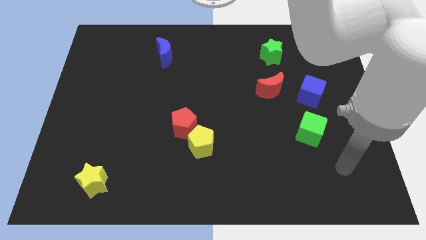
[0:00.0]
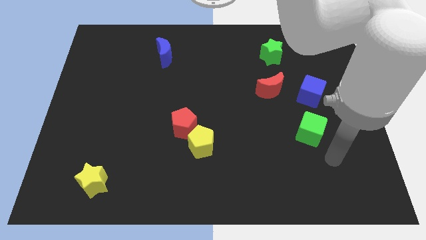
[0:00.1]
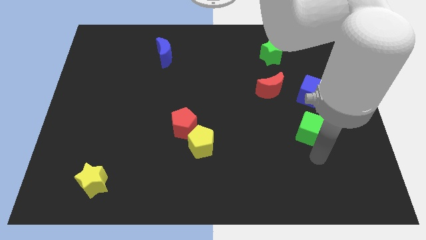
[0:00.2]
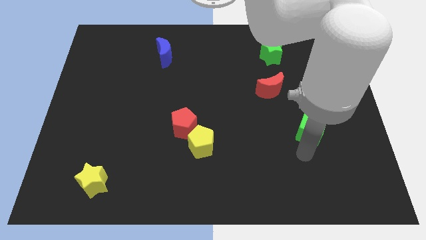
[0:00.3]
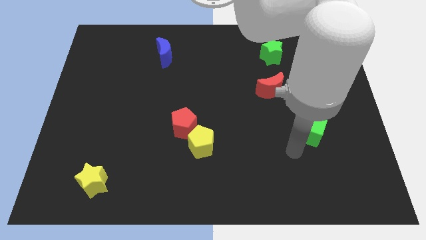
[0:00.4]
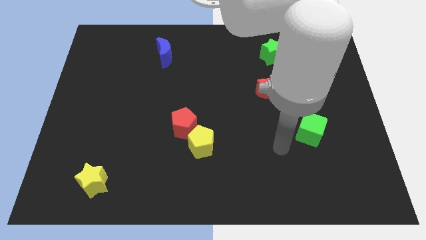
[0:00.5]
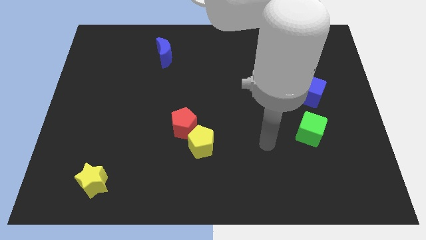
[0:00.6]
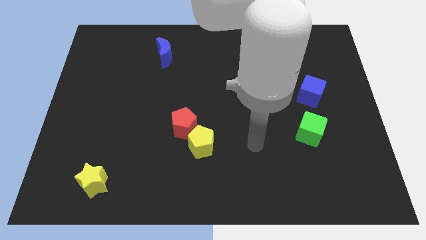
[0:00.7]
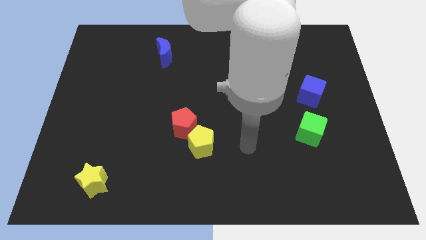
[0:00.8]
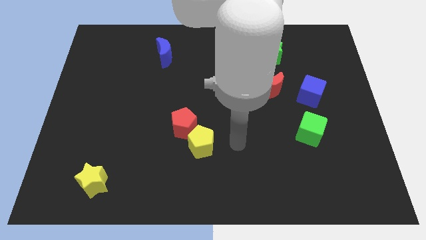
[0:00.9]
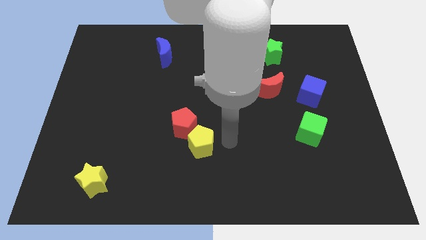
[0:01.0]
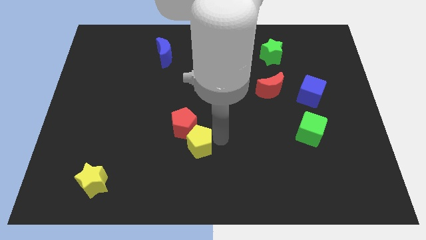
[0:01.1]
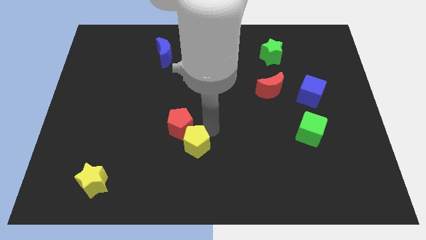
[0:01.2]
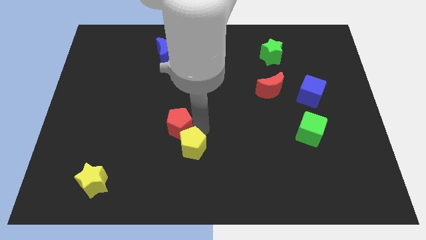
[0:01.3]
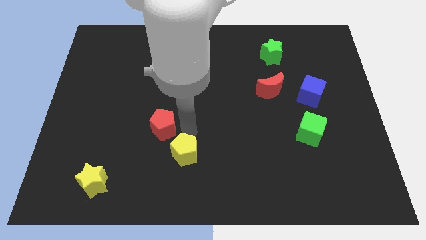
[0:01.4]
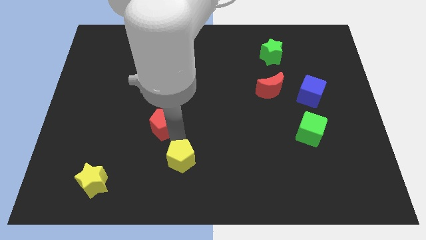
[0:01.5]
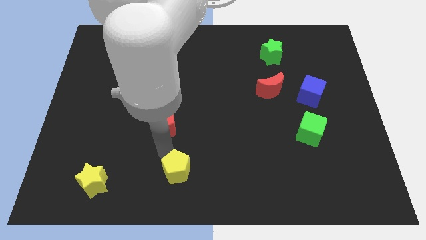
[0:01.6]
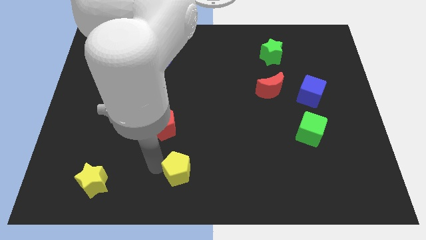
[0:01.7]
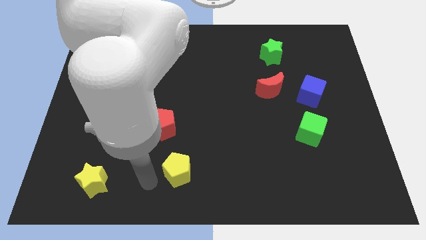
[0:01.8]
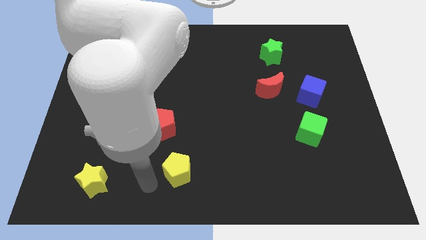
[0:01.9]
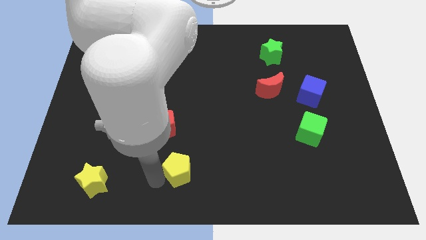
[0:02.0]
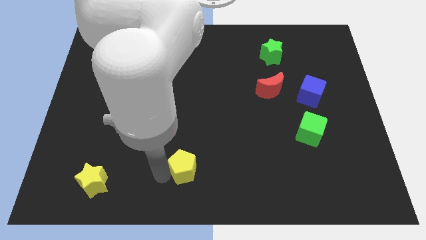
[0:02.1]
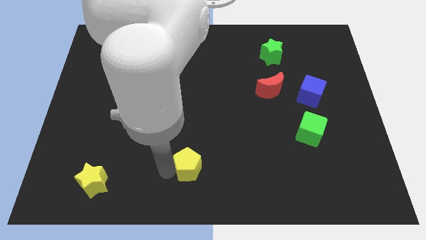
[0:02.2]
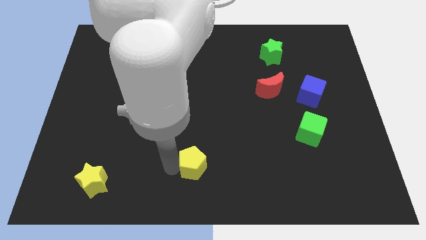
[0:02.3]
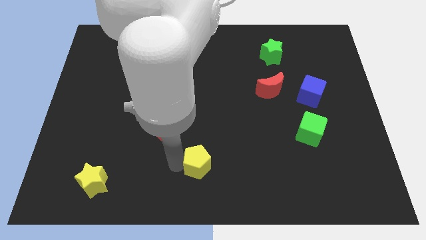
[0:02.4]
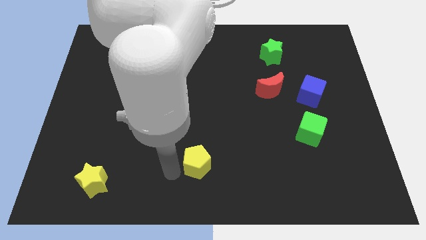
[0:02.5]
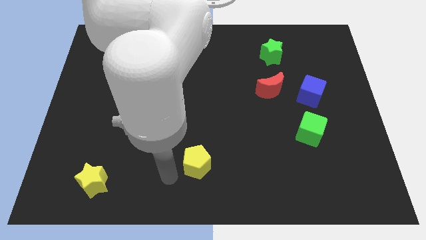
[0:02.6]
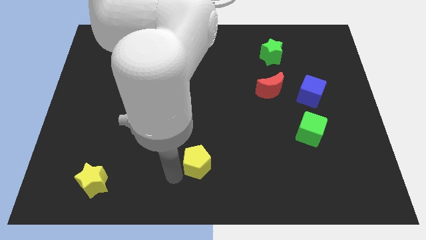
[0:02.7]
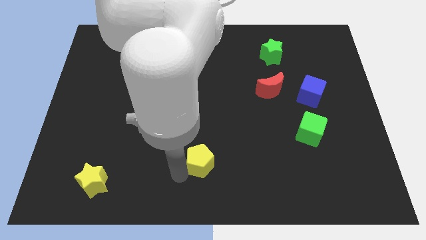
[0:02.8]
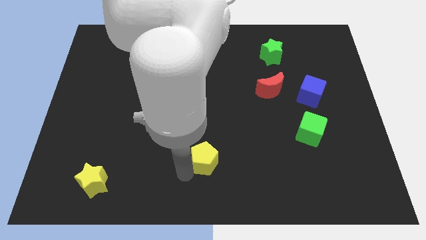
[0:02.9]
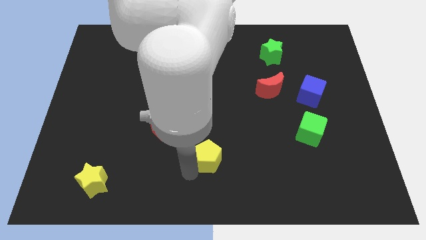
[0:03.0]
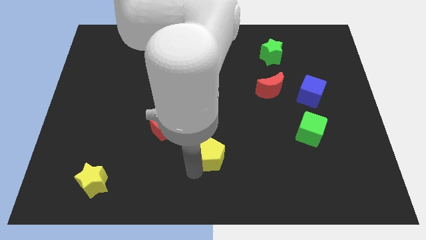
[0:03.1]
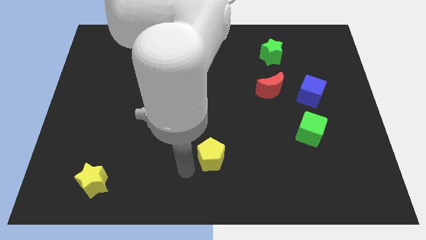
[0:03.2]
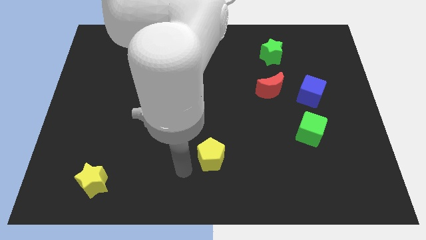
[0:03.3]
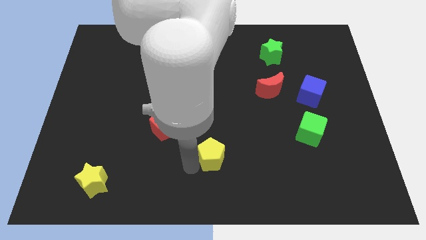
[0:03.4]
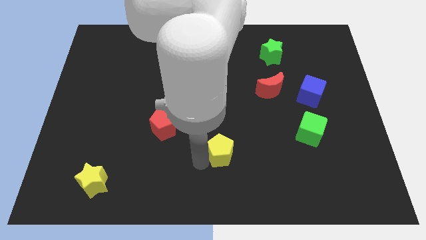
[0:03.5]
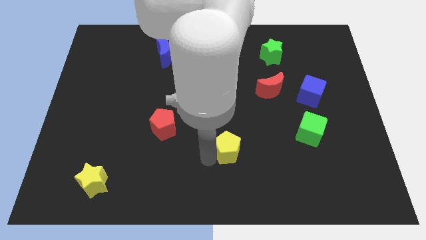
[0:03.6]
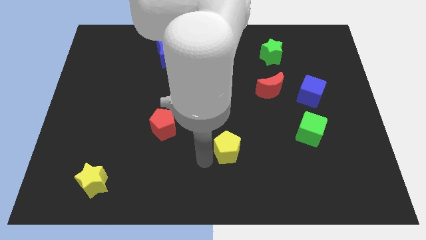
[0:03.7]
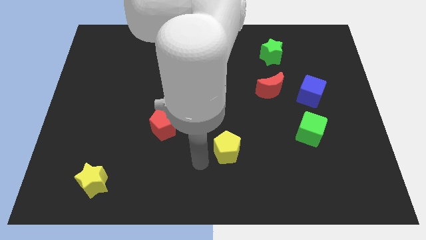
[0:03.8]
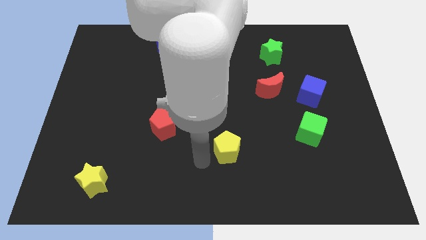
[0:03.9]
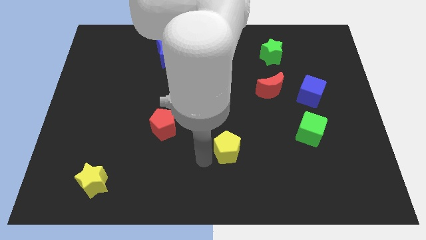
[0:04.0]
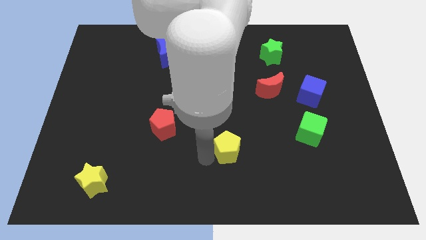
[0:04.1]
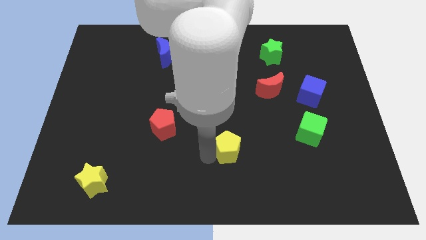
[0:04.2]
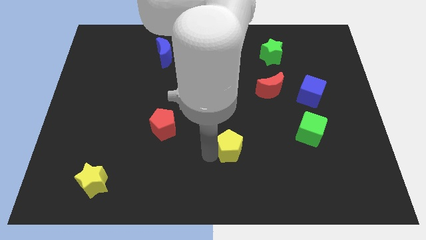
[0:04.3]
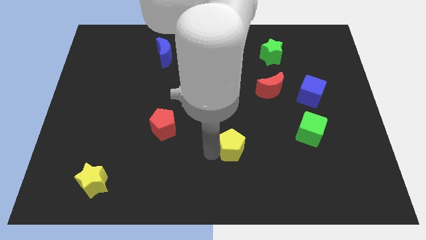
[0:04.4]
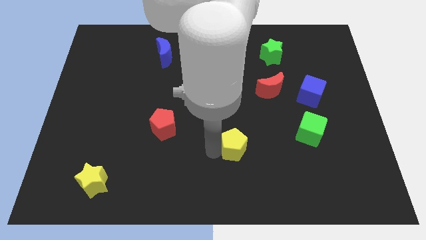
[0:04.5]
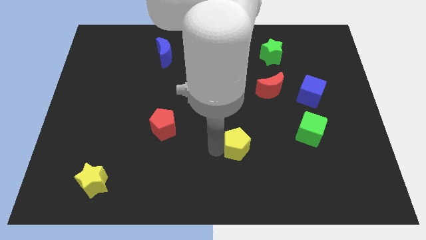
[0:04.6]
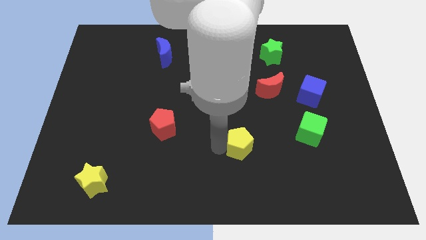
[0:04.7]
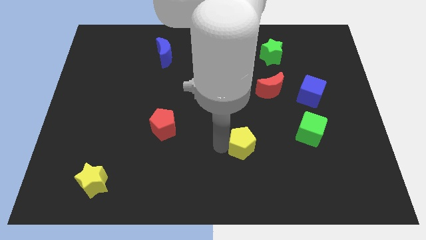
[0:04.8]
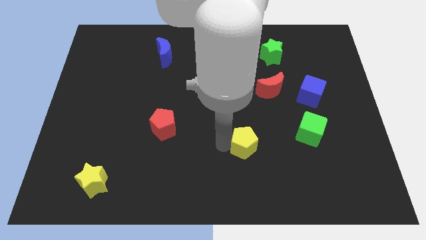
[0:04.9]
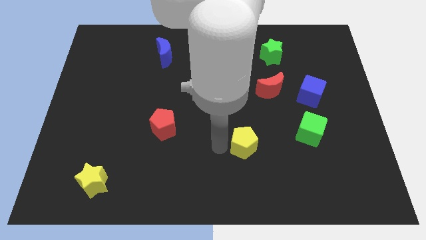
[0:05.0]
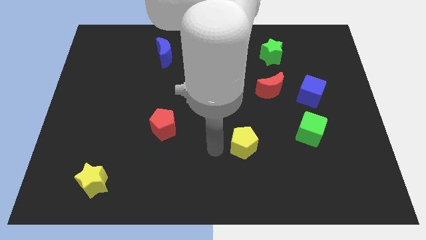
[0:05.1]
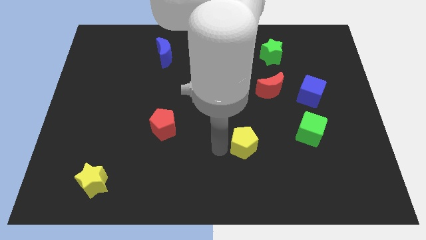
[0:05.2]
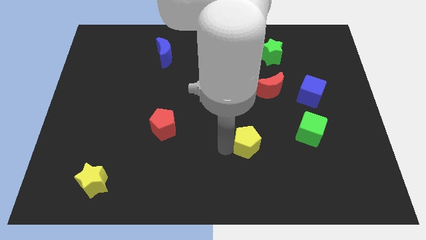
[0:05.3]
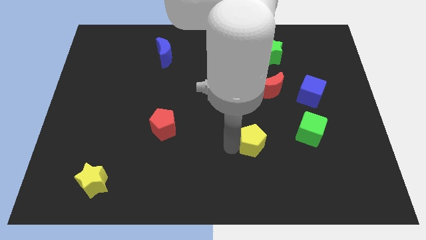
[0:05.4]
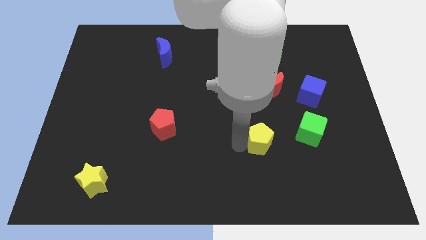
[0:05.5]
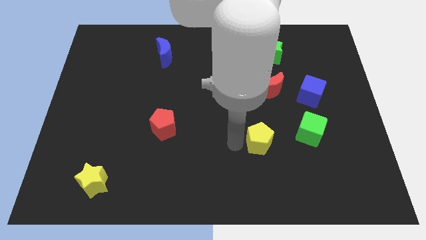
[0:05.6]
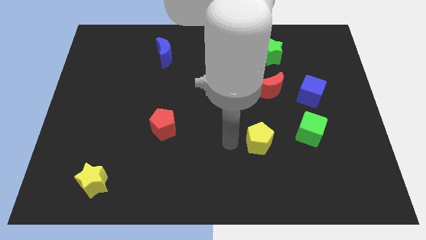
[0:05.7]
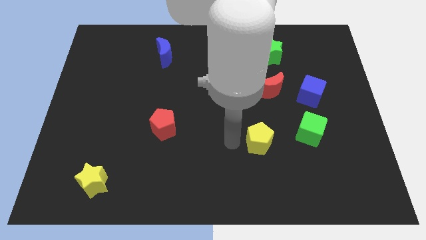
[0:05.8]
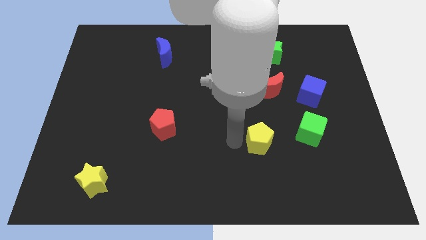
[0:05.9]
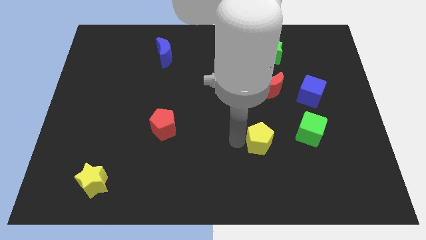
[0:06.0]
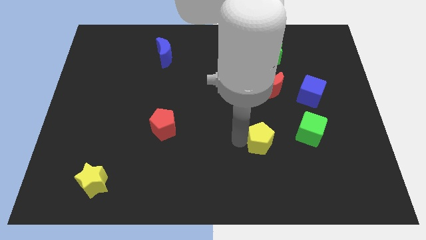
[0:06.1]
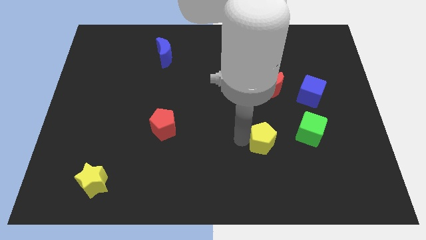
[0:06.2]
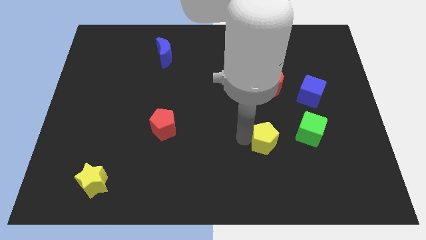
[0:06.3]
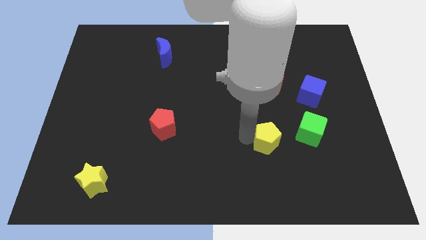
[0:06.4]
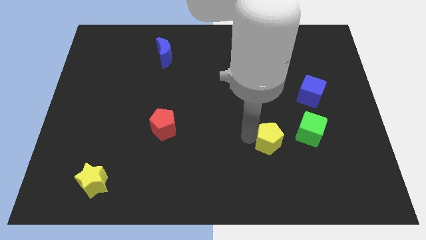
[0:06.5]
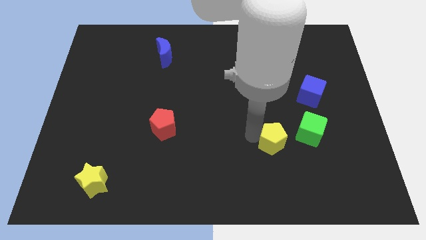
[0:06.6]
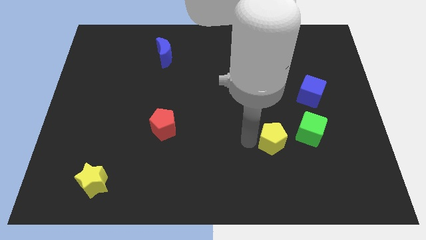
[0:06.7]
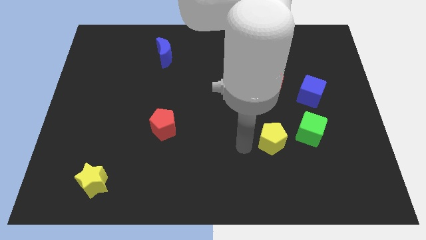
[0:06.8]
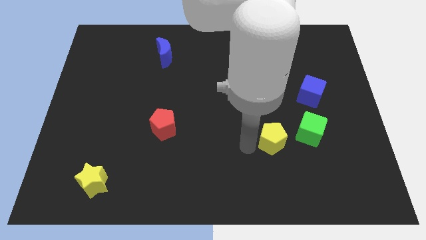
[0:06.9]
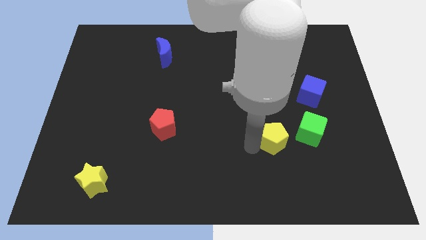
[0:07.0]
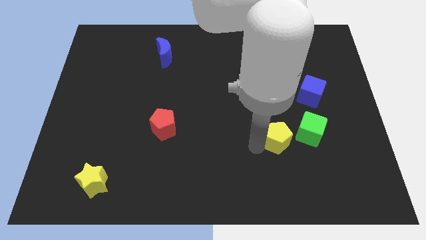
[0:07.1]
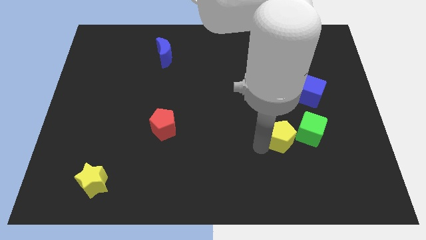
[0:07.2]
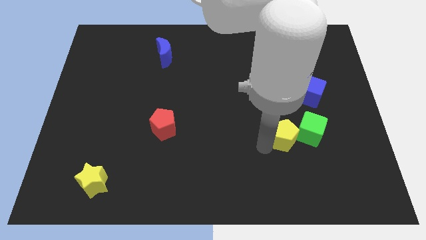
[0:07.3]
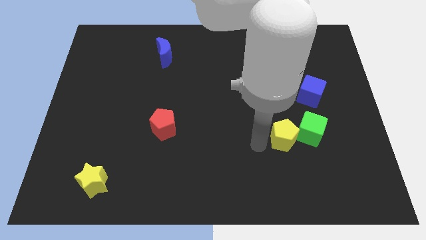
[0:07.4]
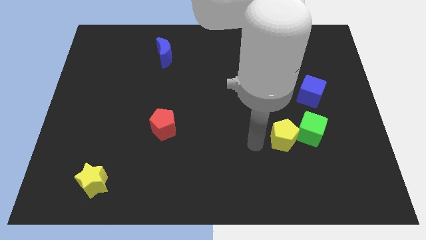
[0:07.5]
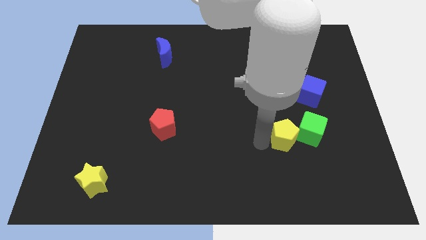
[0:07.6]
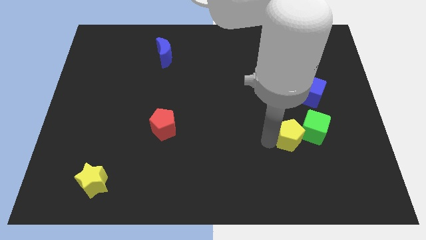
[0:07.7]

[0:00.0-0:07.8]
move the yellow pentagon next to the green cube
